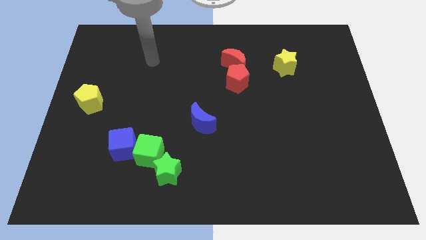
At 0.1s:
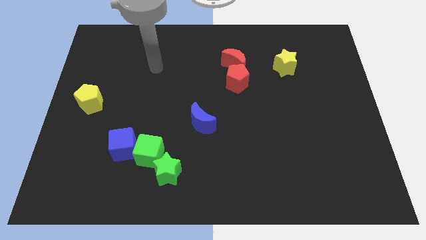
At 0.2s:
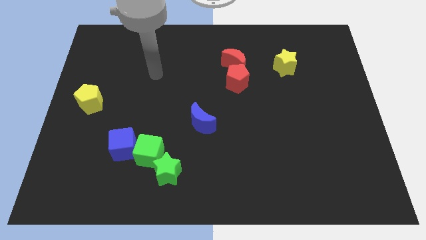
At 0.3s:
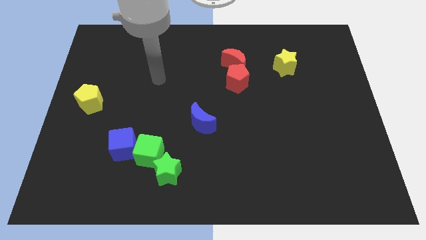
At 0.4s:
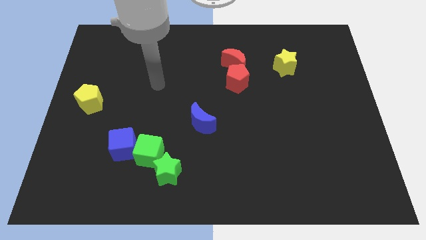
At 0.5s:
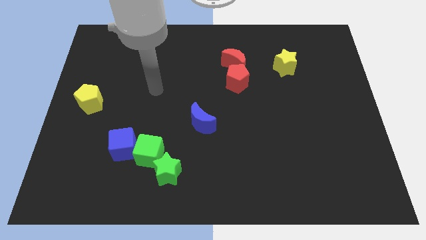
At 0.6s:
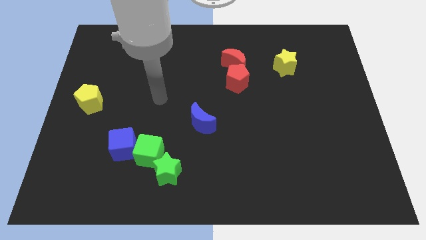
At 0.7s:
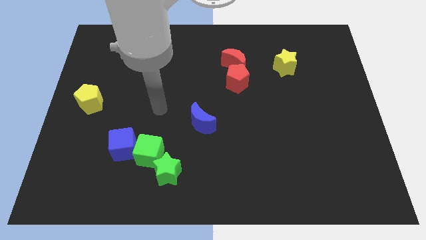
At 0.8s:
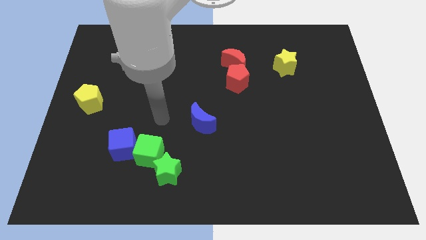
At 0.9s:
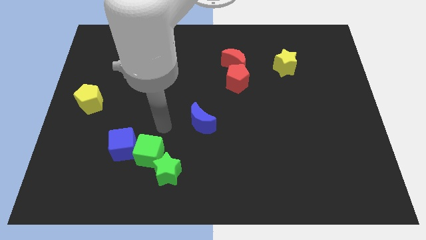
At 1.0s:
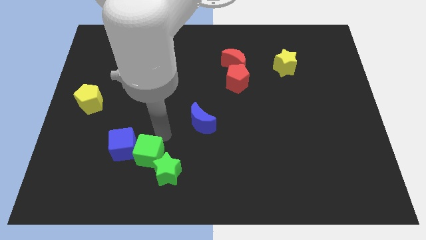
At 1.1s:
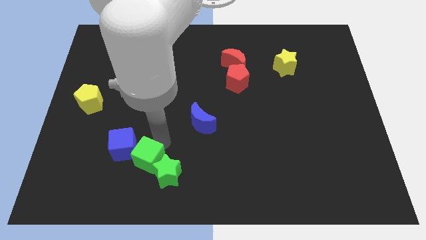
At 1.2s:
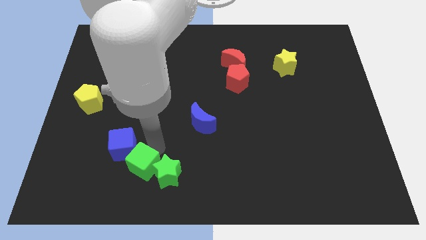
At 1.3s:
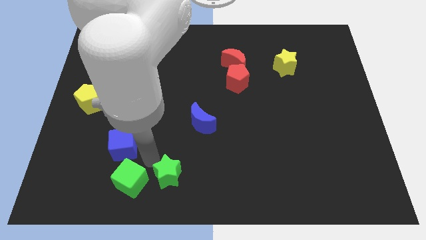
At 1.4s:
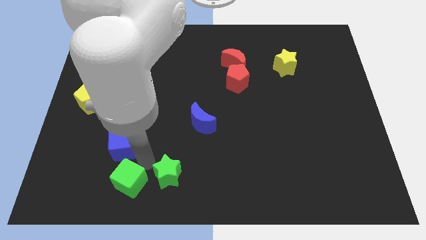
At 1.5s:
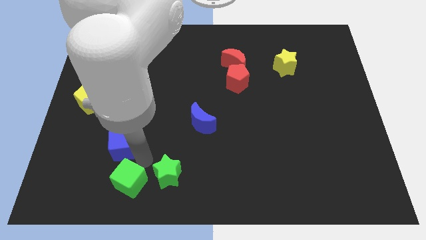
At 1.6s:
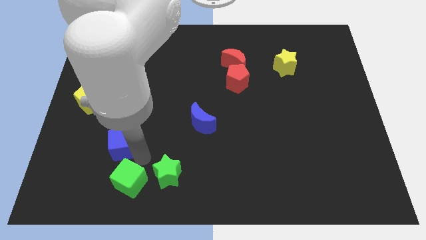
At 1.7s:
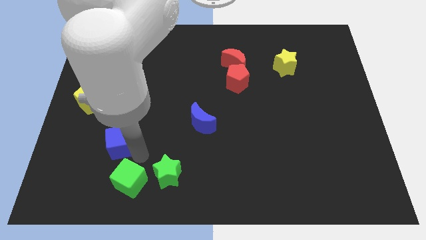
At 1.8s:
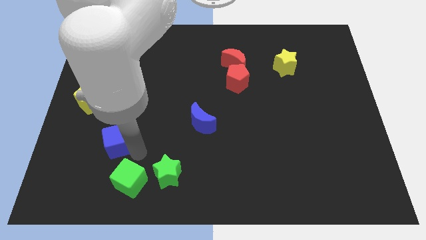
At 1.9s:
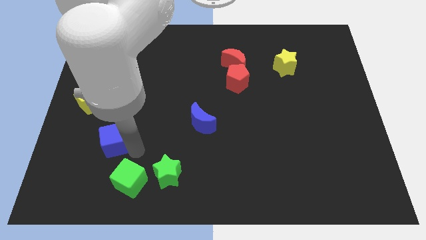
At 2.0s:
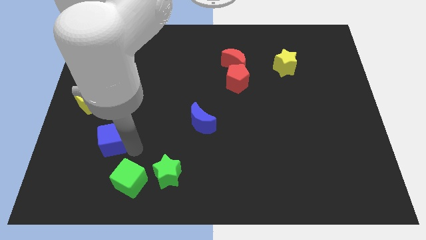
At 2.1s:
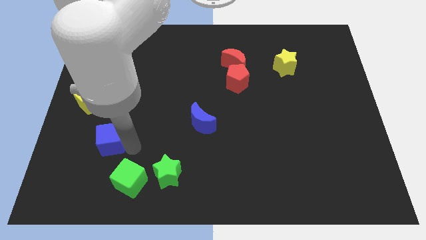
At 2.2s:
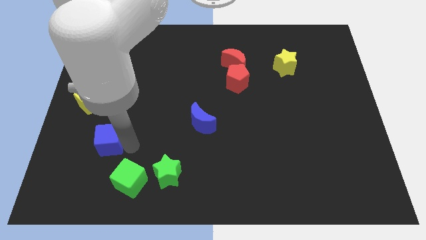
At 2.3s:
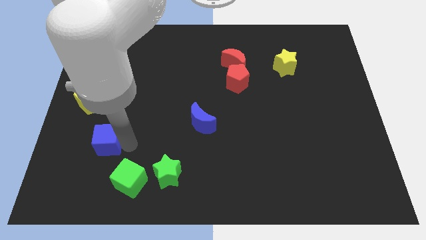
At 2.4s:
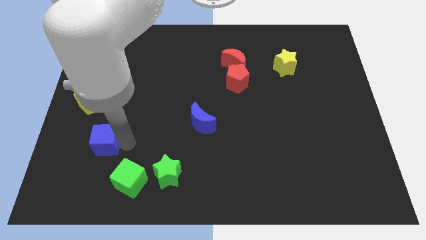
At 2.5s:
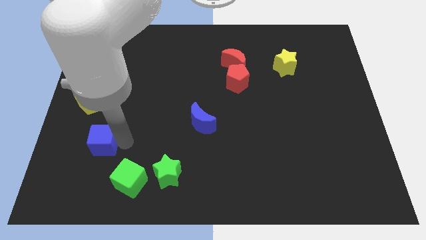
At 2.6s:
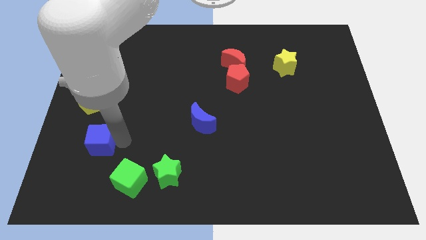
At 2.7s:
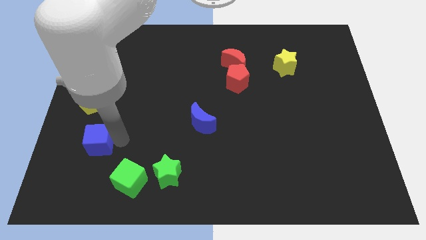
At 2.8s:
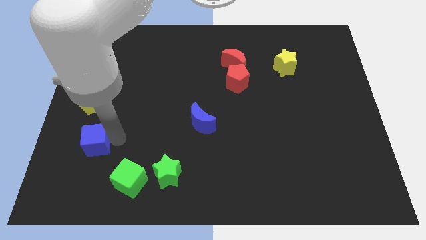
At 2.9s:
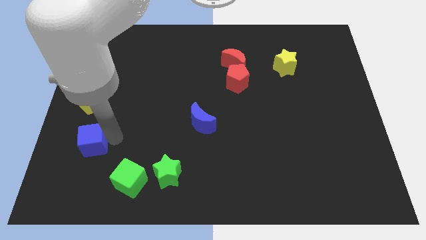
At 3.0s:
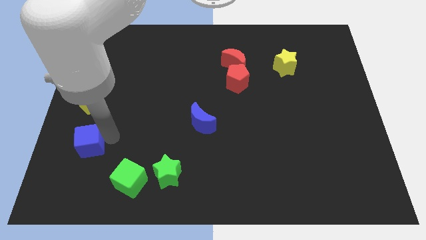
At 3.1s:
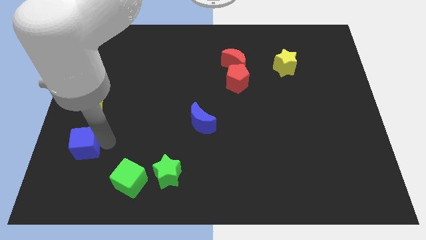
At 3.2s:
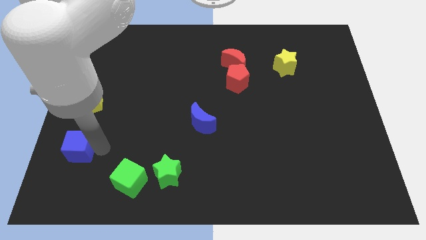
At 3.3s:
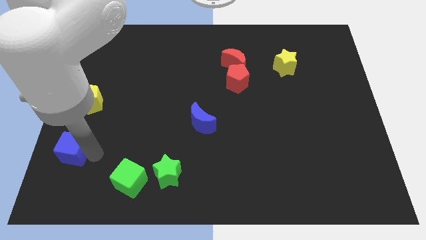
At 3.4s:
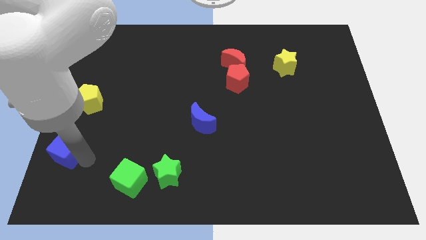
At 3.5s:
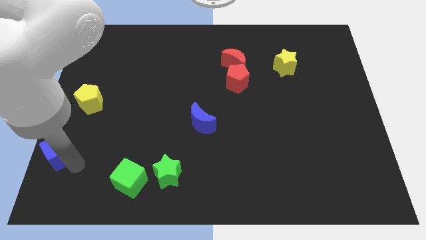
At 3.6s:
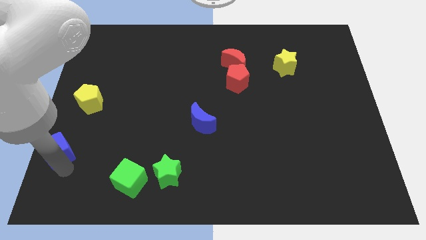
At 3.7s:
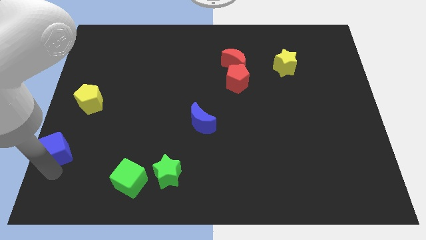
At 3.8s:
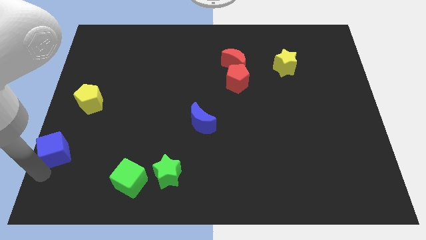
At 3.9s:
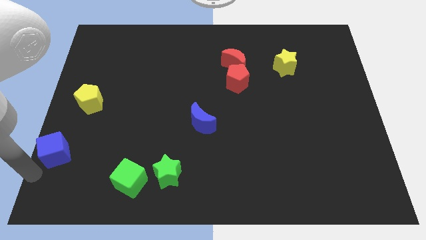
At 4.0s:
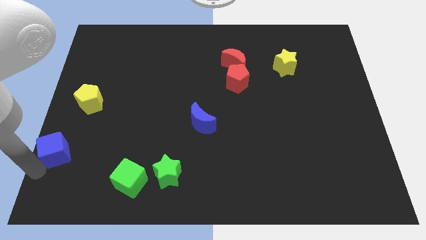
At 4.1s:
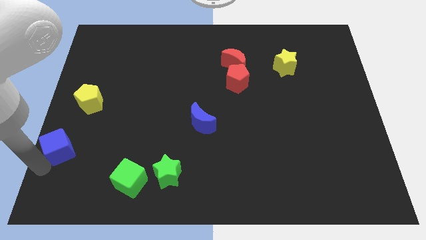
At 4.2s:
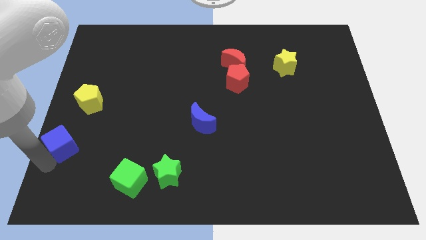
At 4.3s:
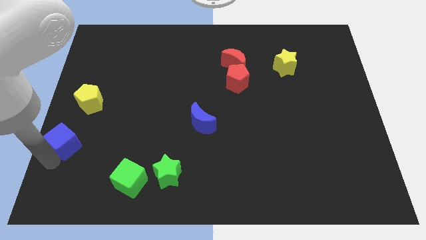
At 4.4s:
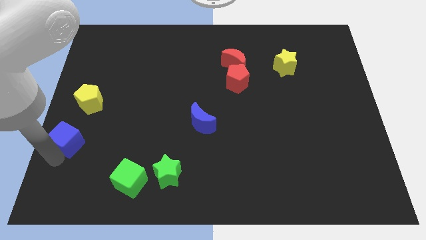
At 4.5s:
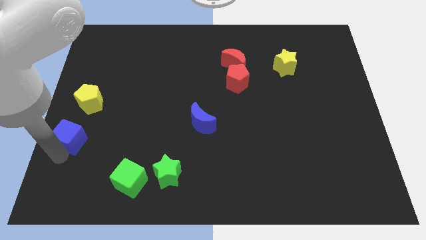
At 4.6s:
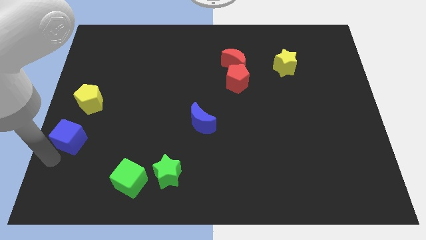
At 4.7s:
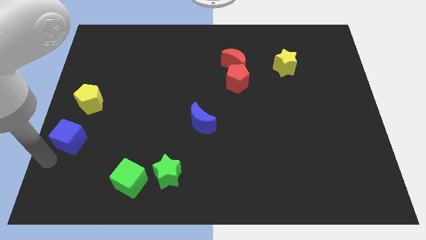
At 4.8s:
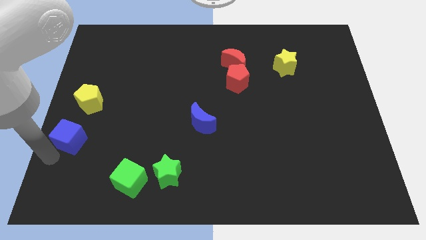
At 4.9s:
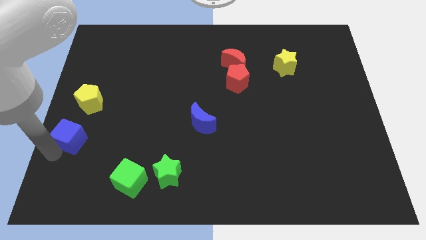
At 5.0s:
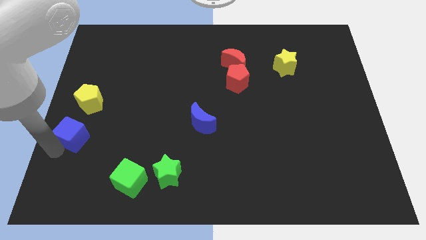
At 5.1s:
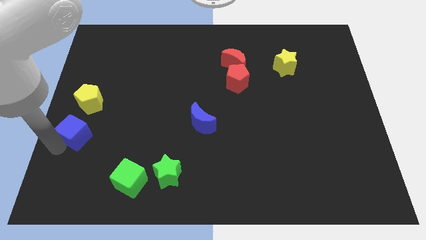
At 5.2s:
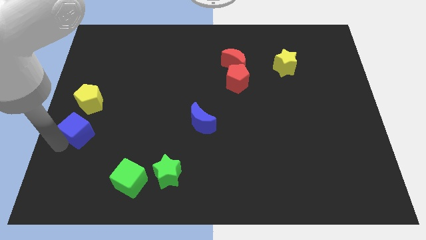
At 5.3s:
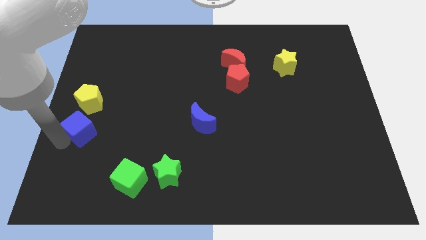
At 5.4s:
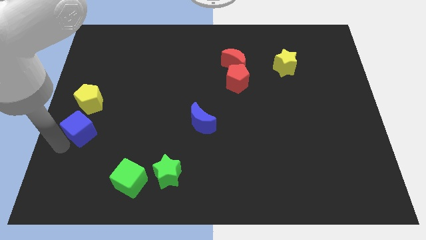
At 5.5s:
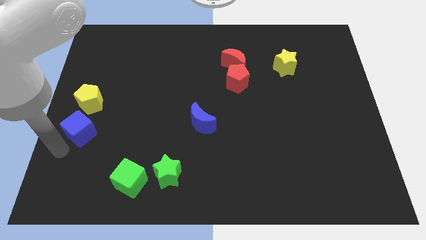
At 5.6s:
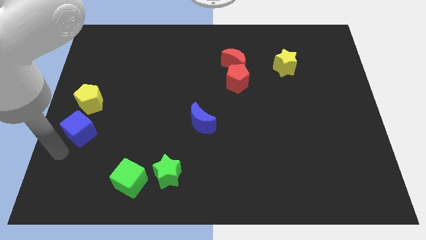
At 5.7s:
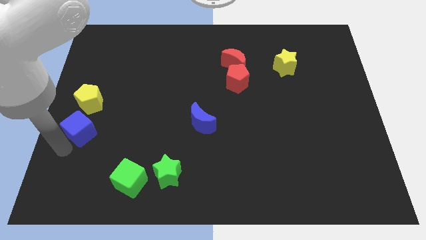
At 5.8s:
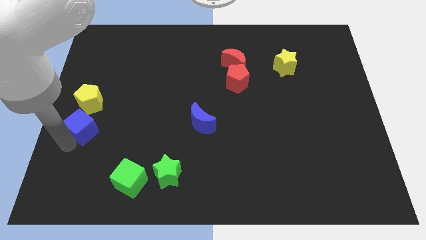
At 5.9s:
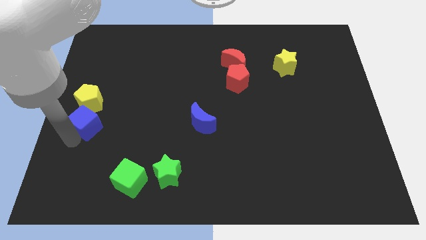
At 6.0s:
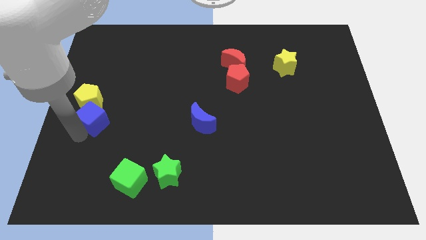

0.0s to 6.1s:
slide the blue cube to the yellow pentagon

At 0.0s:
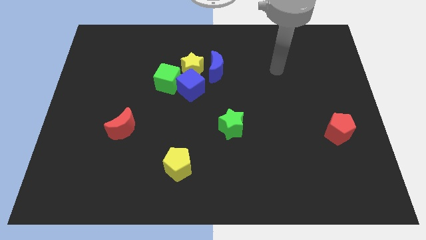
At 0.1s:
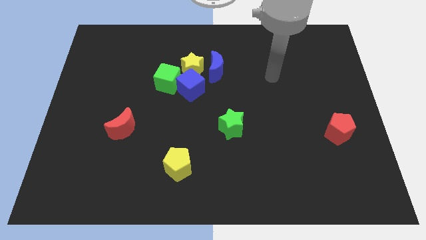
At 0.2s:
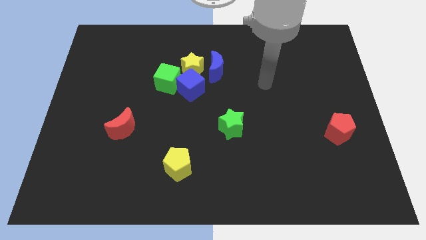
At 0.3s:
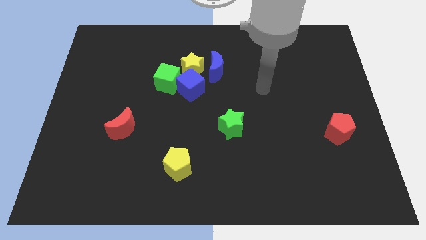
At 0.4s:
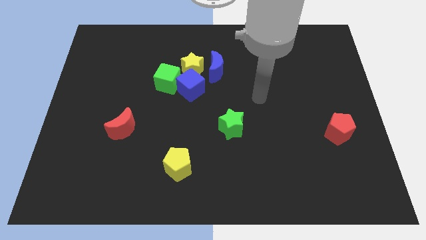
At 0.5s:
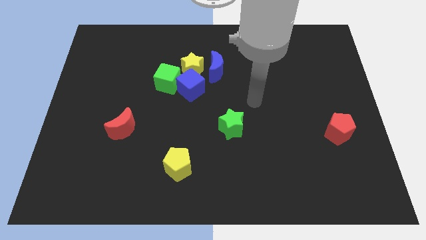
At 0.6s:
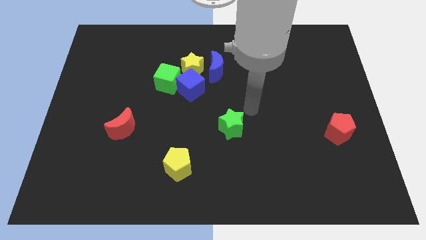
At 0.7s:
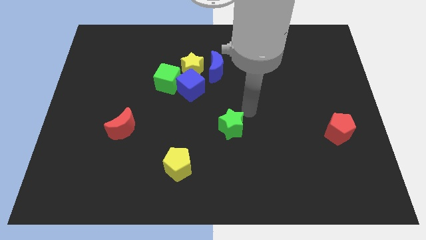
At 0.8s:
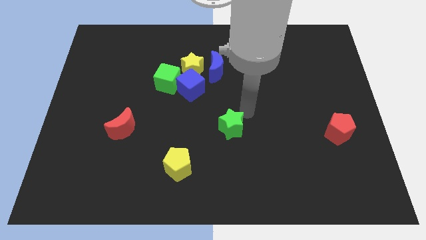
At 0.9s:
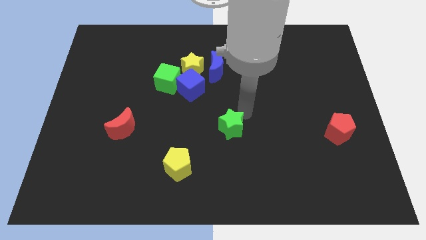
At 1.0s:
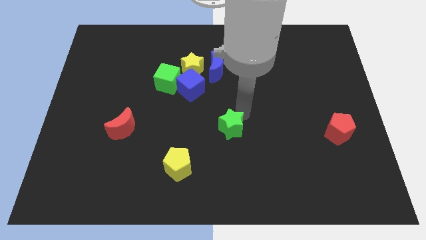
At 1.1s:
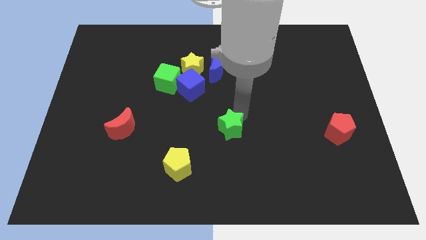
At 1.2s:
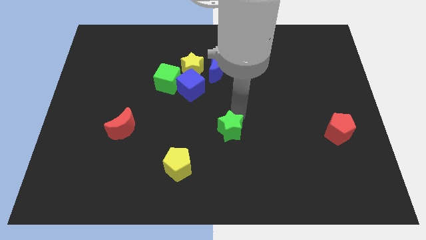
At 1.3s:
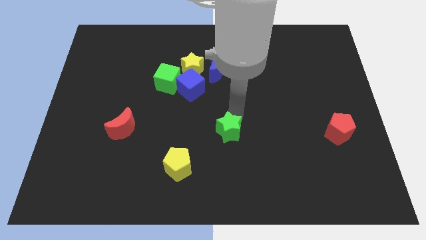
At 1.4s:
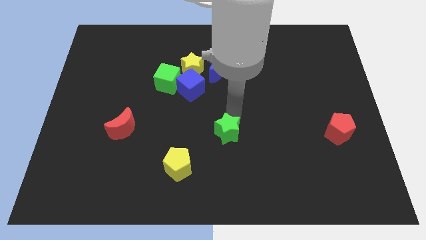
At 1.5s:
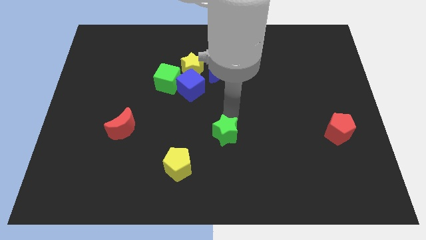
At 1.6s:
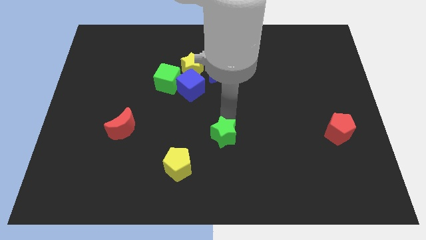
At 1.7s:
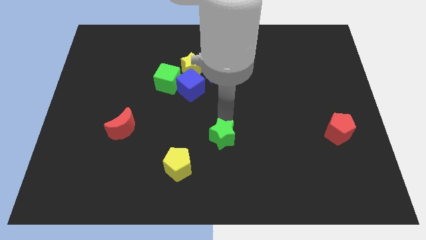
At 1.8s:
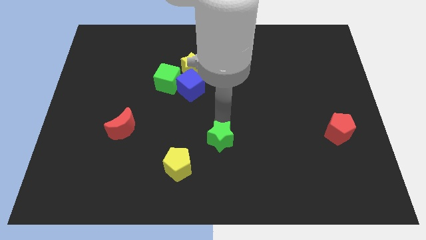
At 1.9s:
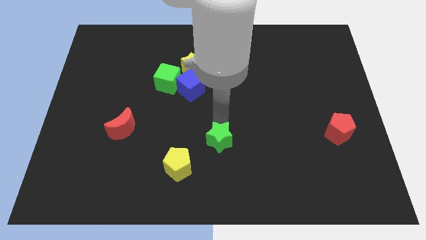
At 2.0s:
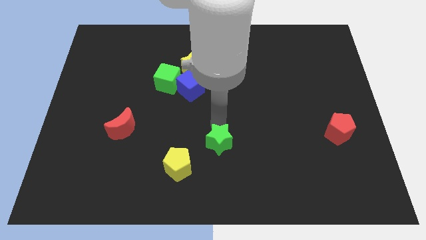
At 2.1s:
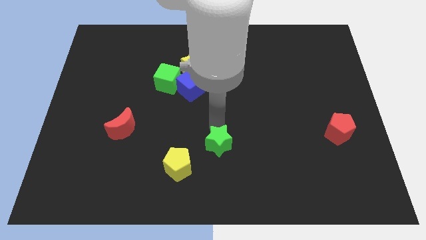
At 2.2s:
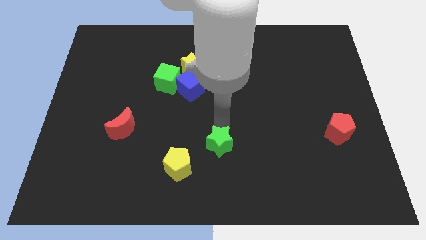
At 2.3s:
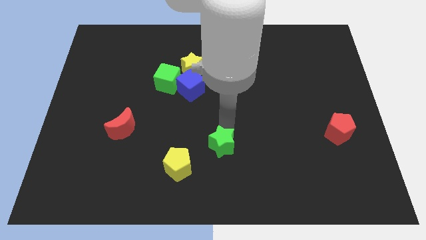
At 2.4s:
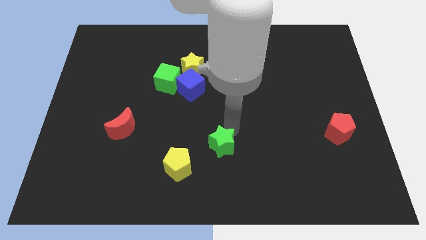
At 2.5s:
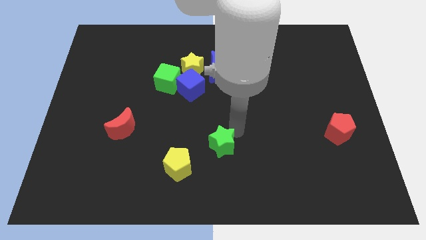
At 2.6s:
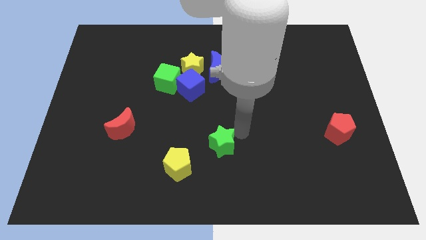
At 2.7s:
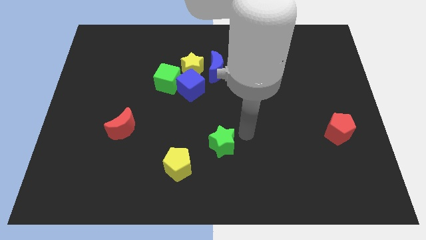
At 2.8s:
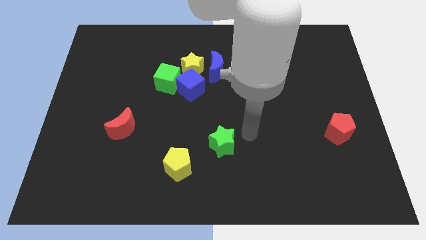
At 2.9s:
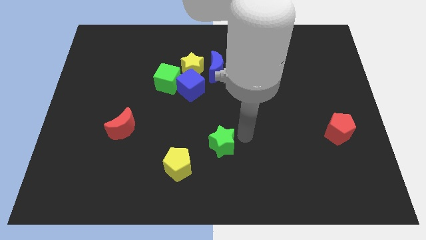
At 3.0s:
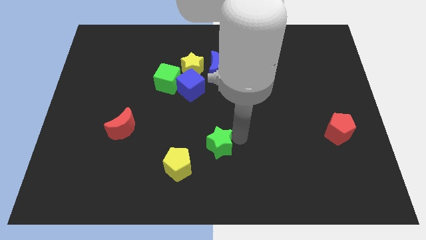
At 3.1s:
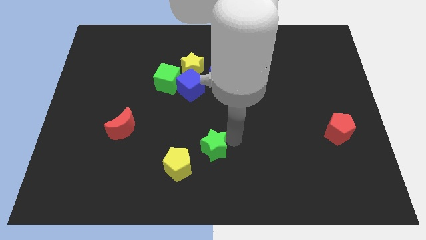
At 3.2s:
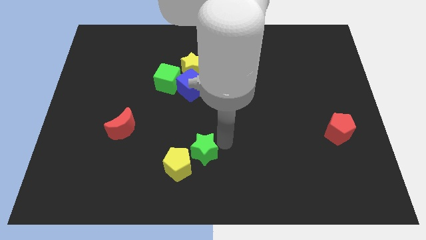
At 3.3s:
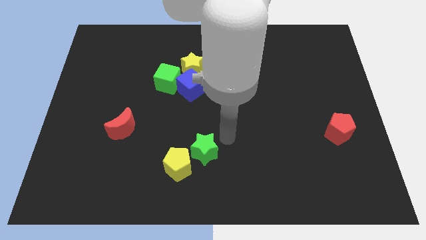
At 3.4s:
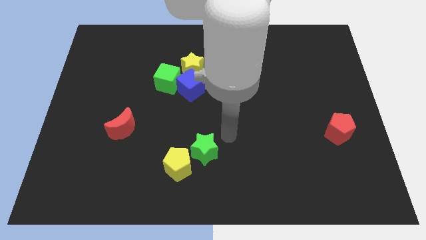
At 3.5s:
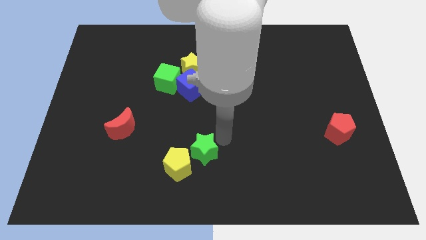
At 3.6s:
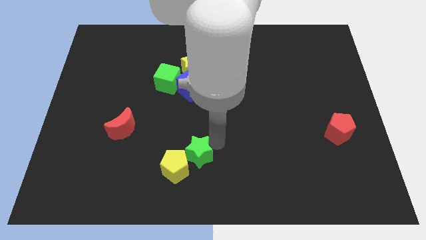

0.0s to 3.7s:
push the green star to the yellow pentagon
